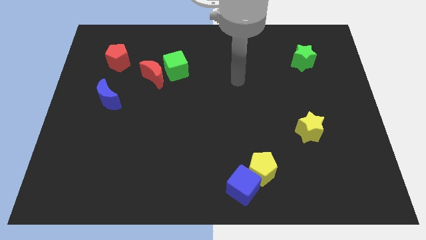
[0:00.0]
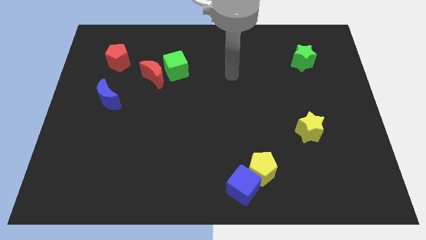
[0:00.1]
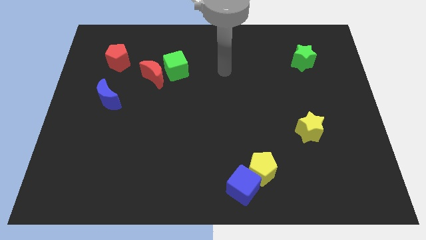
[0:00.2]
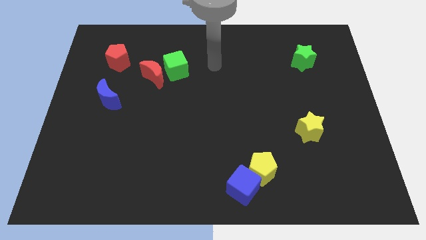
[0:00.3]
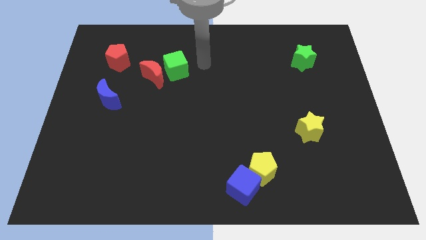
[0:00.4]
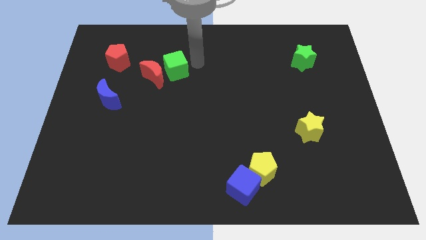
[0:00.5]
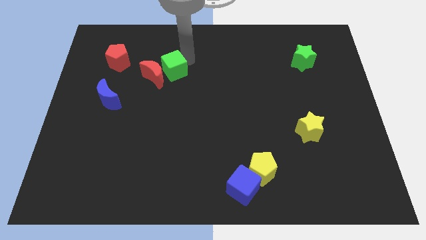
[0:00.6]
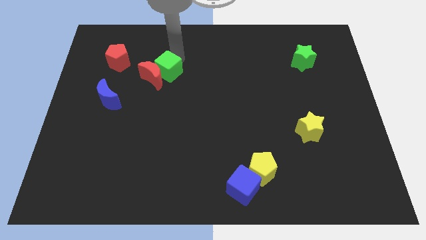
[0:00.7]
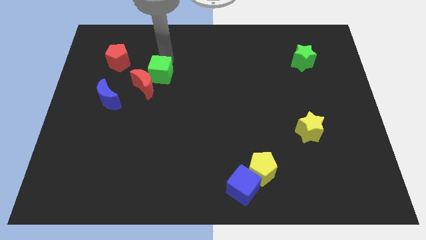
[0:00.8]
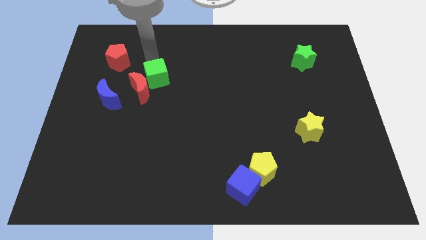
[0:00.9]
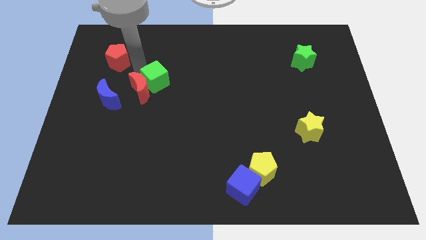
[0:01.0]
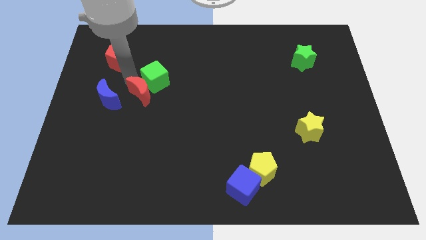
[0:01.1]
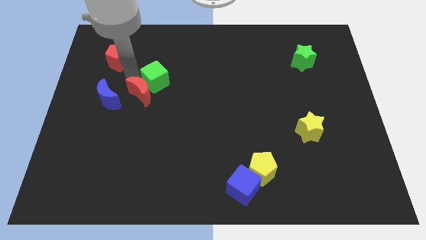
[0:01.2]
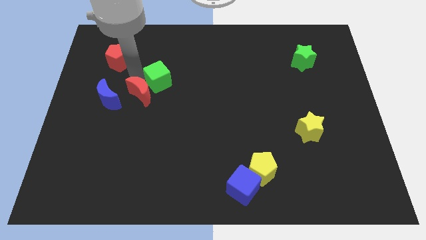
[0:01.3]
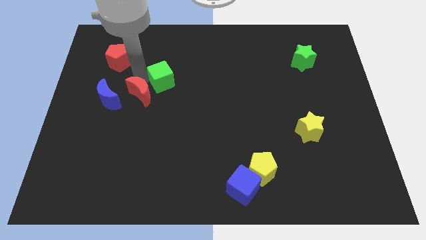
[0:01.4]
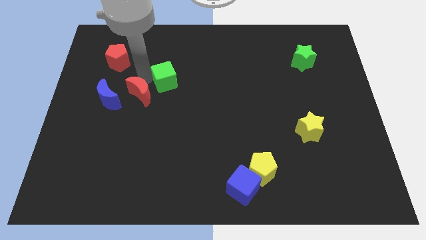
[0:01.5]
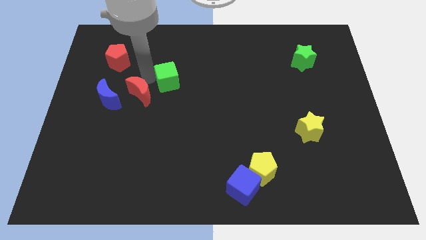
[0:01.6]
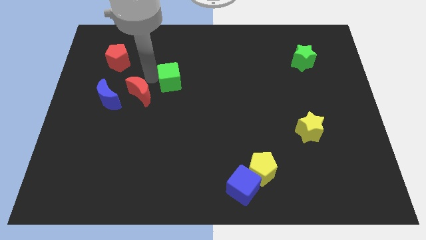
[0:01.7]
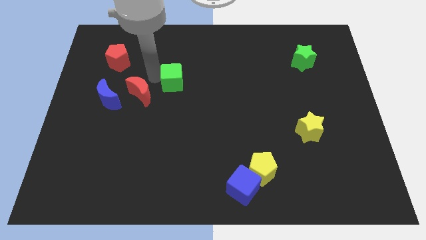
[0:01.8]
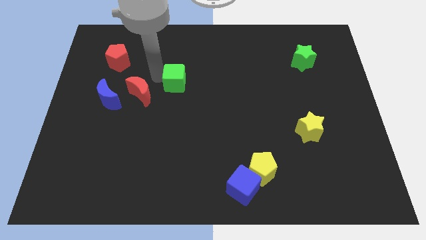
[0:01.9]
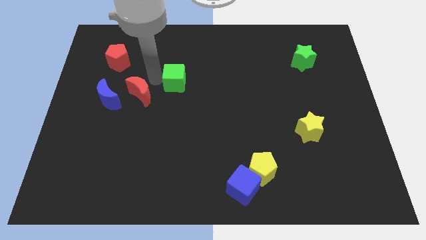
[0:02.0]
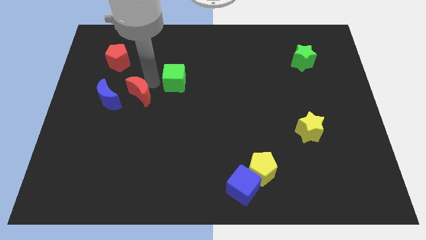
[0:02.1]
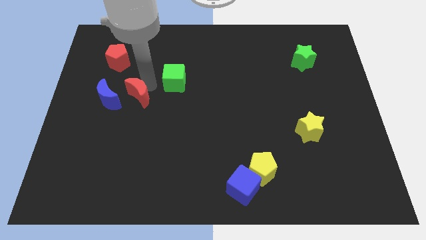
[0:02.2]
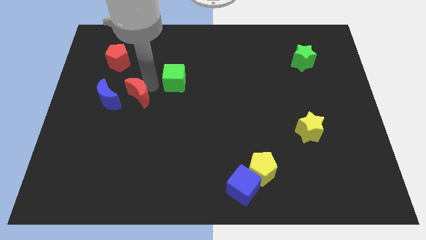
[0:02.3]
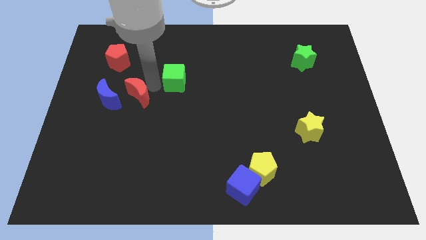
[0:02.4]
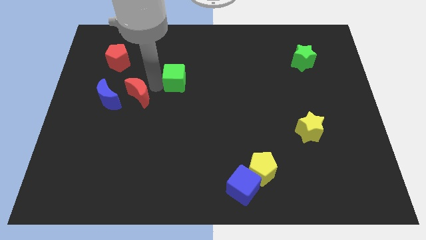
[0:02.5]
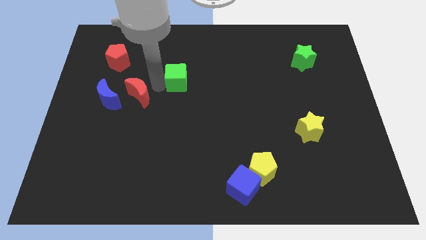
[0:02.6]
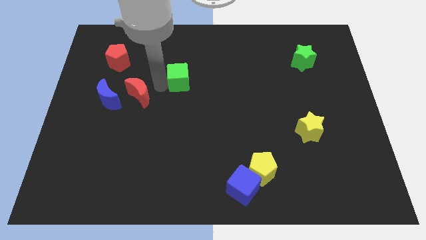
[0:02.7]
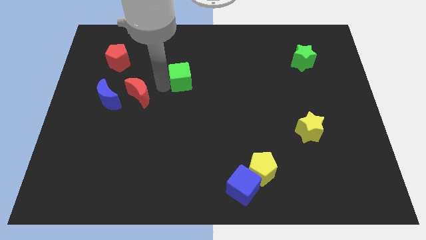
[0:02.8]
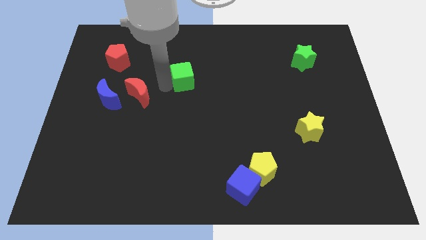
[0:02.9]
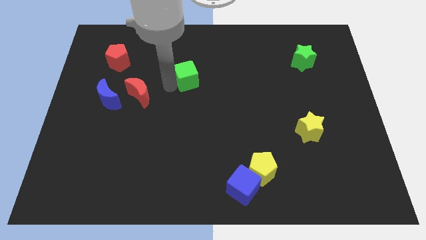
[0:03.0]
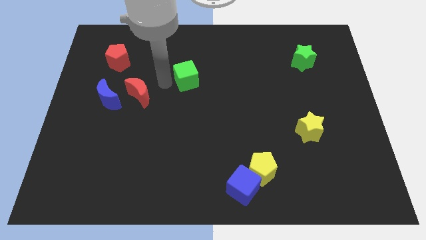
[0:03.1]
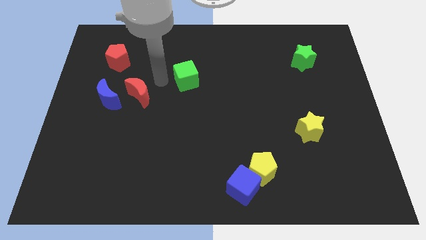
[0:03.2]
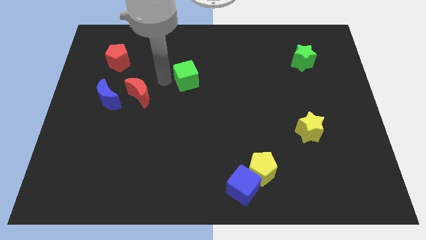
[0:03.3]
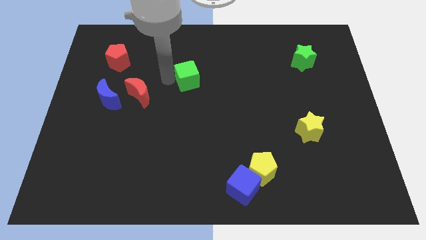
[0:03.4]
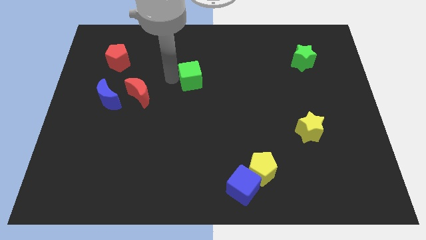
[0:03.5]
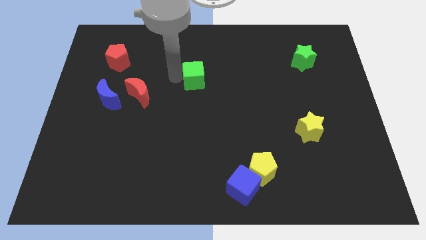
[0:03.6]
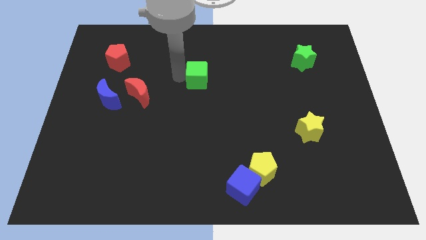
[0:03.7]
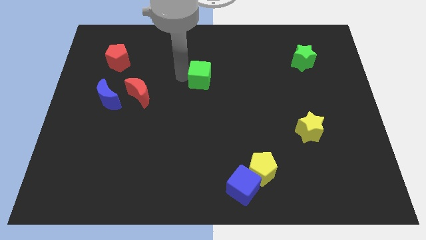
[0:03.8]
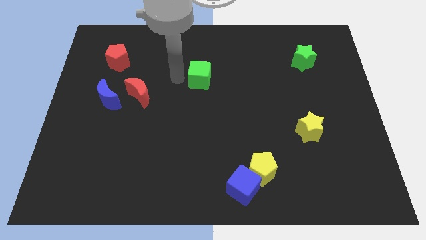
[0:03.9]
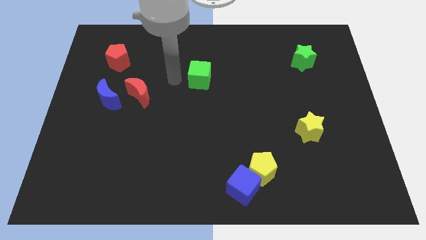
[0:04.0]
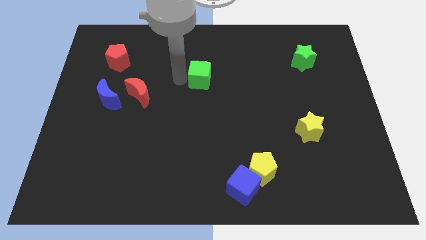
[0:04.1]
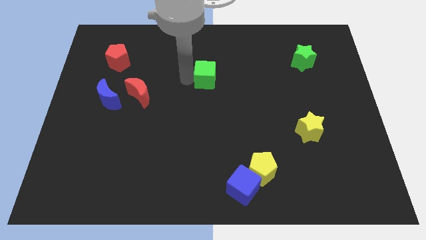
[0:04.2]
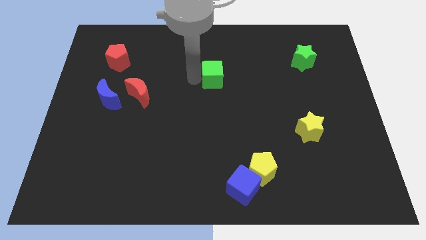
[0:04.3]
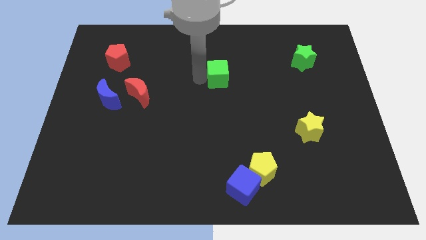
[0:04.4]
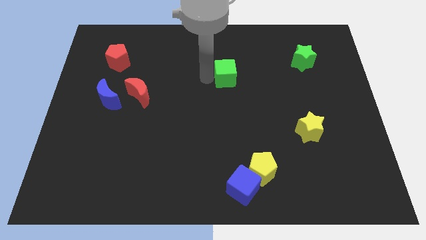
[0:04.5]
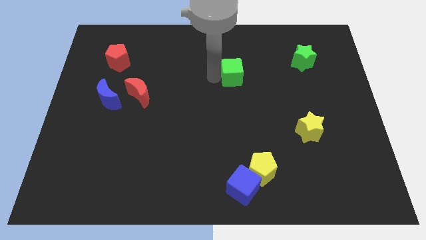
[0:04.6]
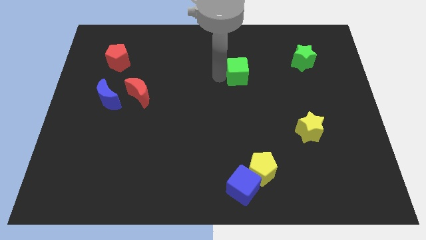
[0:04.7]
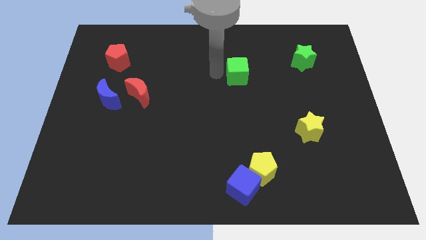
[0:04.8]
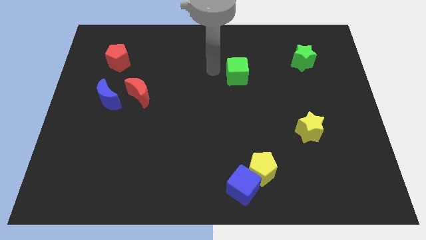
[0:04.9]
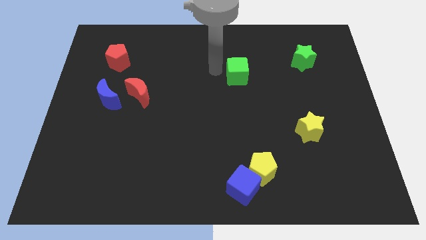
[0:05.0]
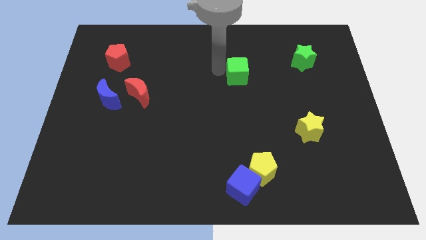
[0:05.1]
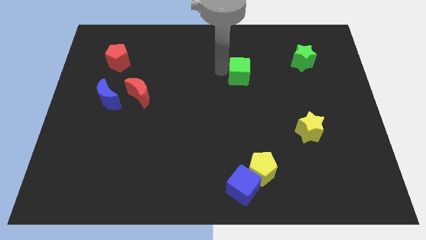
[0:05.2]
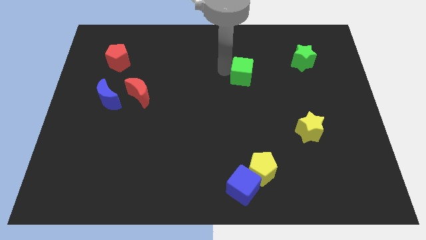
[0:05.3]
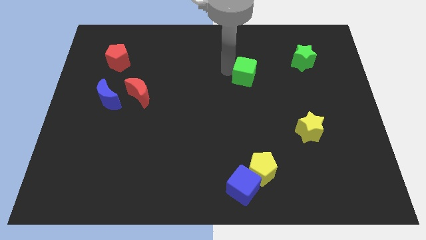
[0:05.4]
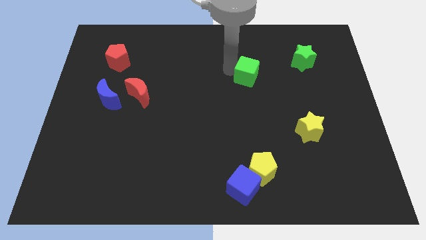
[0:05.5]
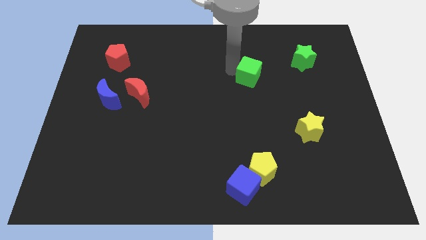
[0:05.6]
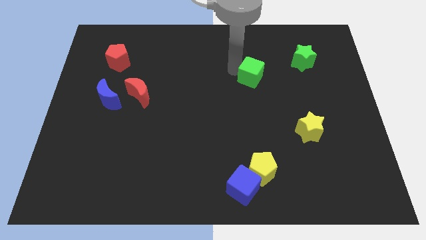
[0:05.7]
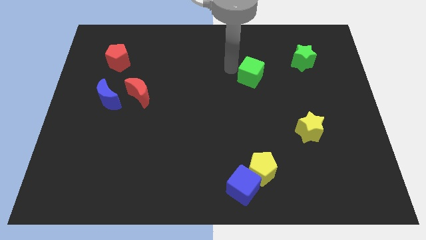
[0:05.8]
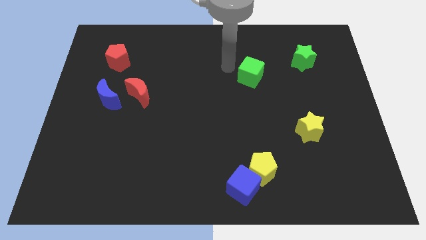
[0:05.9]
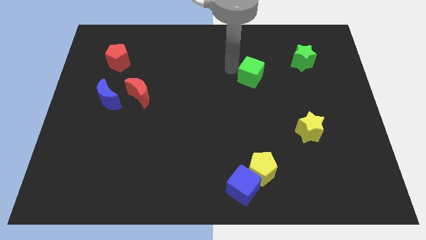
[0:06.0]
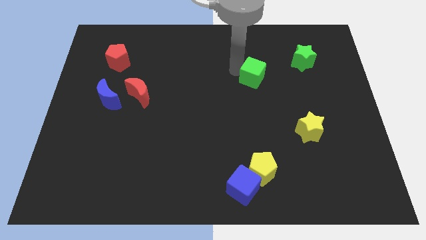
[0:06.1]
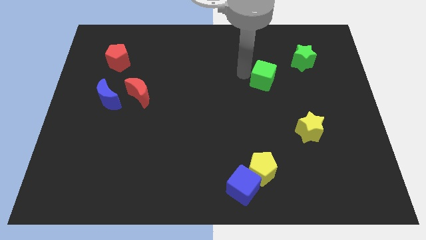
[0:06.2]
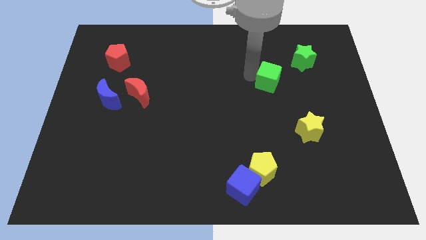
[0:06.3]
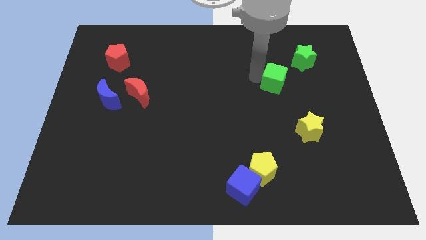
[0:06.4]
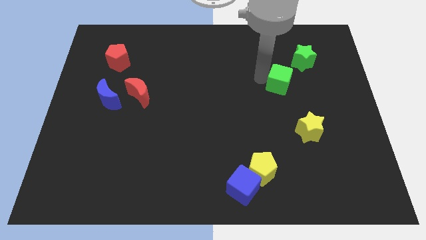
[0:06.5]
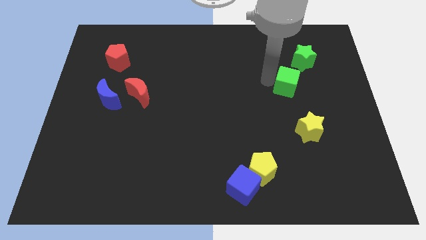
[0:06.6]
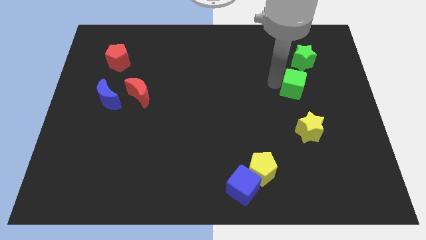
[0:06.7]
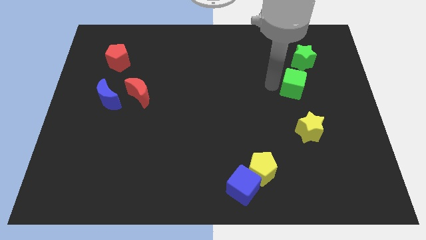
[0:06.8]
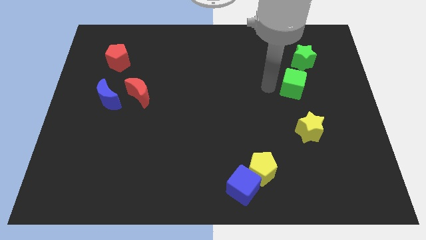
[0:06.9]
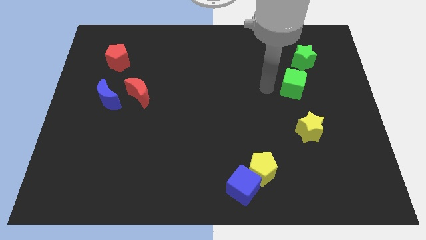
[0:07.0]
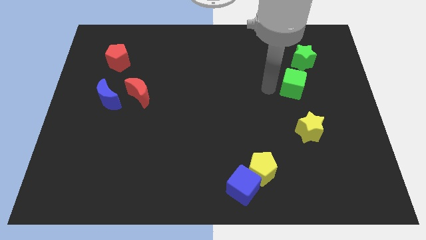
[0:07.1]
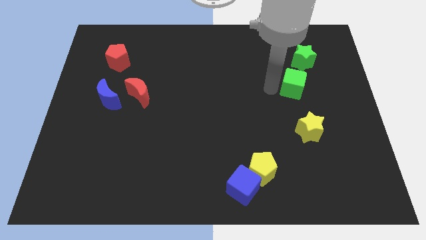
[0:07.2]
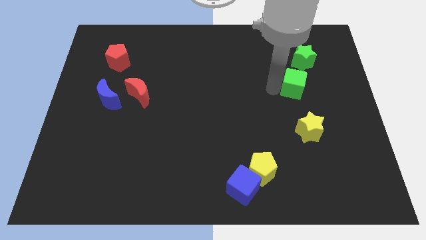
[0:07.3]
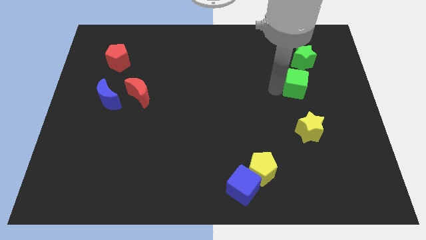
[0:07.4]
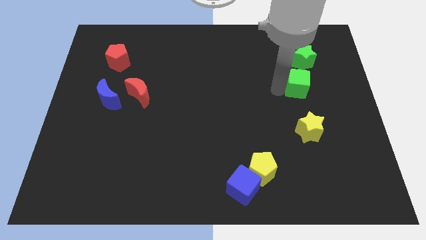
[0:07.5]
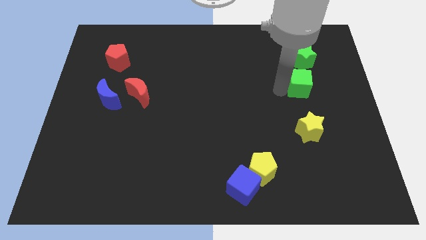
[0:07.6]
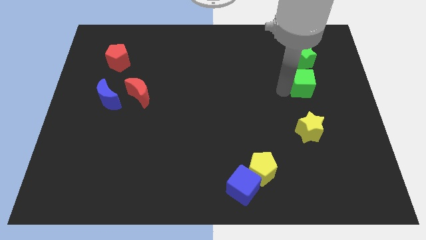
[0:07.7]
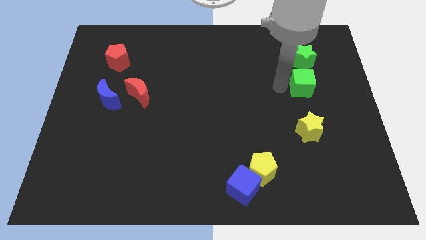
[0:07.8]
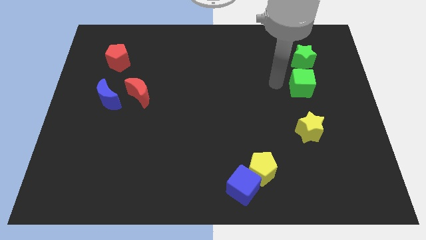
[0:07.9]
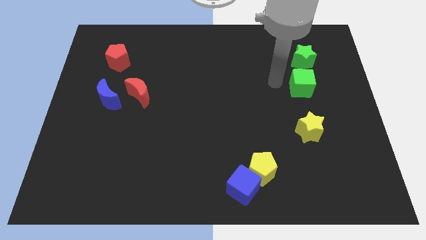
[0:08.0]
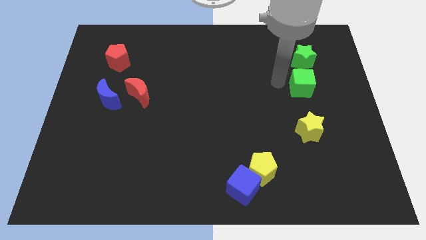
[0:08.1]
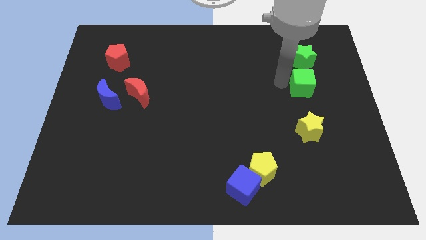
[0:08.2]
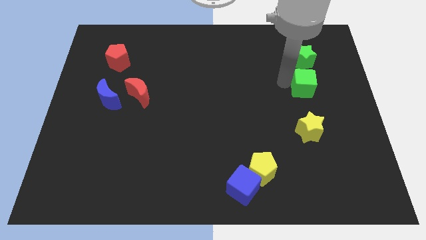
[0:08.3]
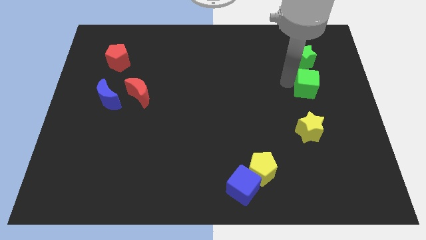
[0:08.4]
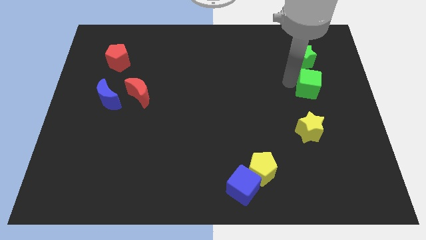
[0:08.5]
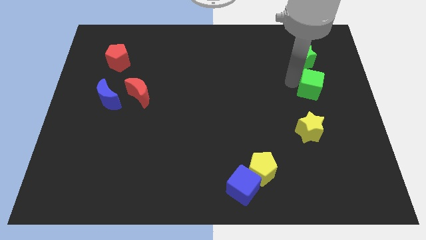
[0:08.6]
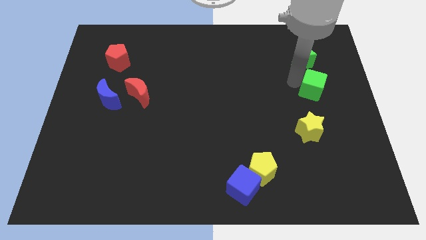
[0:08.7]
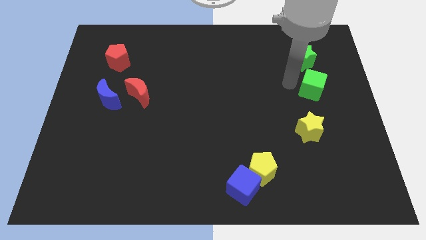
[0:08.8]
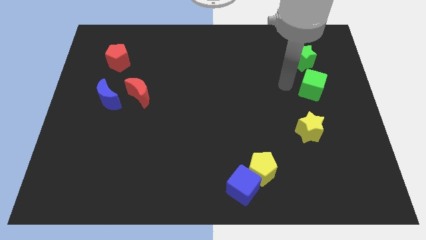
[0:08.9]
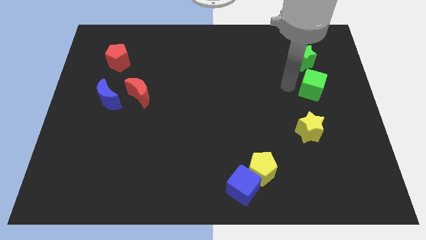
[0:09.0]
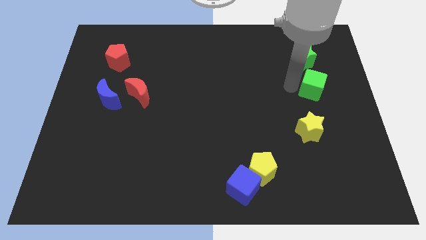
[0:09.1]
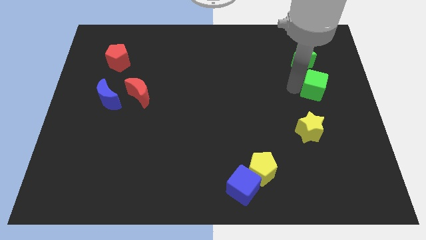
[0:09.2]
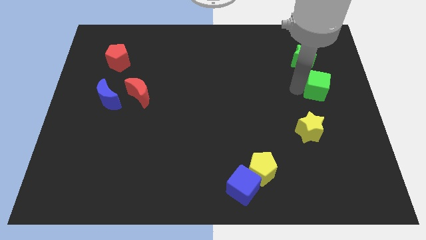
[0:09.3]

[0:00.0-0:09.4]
slide the green cube to the right side of the board
